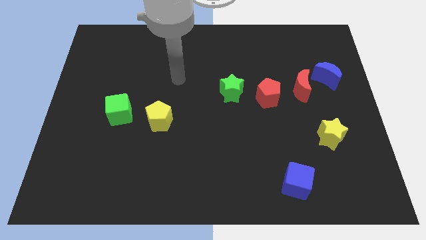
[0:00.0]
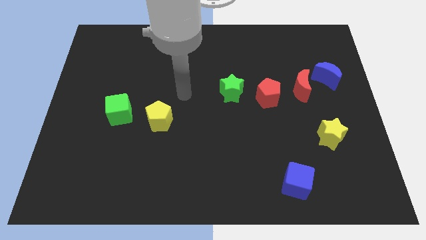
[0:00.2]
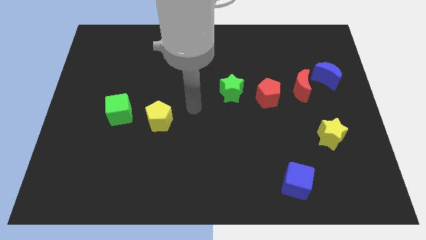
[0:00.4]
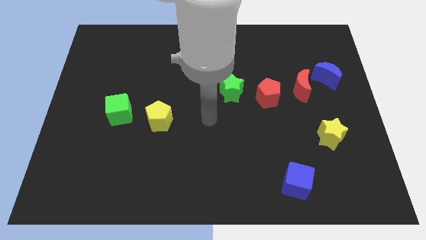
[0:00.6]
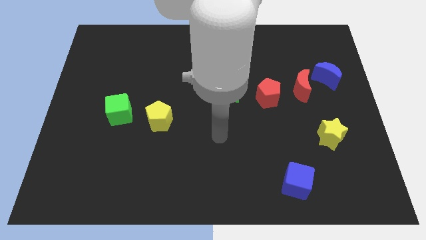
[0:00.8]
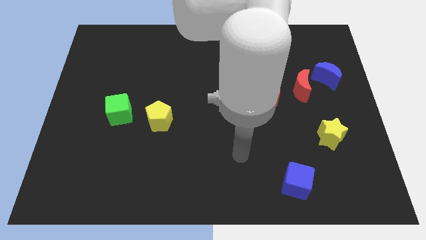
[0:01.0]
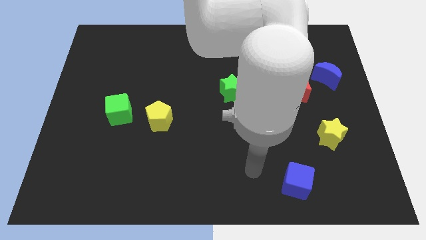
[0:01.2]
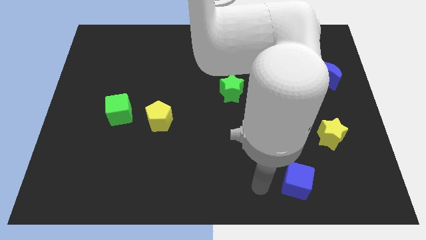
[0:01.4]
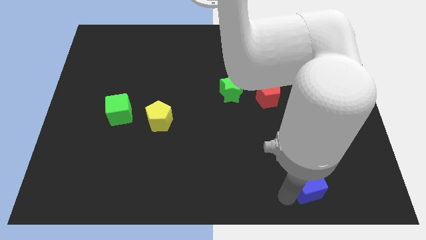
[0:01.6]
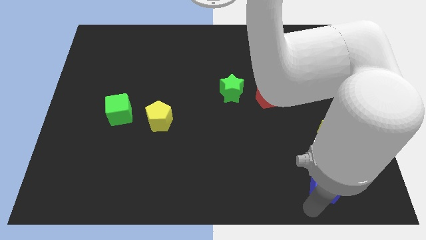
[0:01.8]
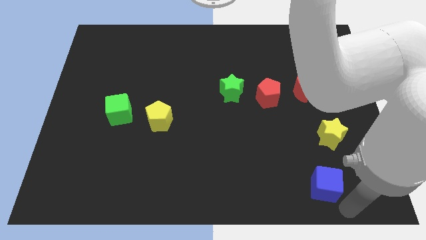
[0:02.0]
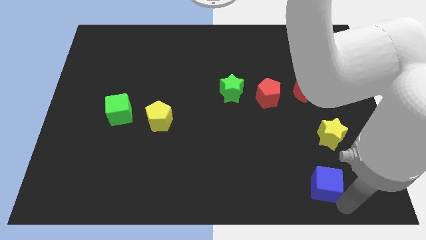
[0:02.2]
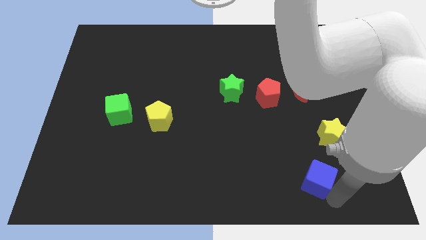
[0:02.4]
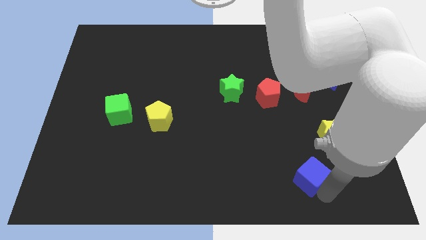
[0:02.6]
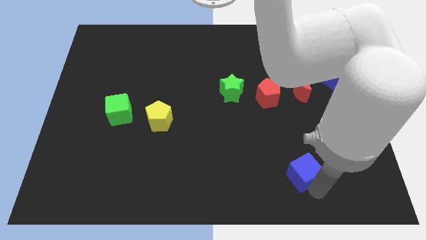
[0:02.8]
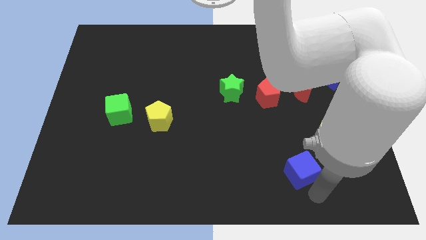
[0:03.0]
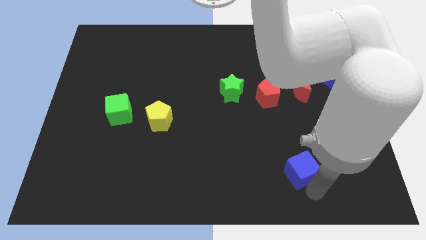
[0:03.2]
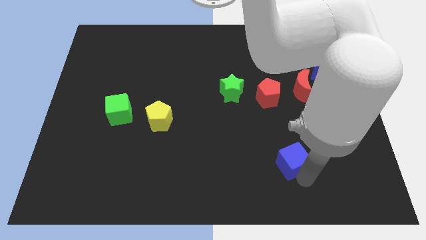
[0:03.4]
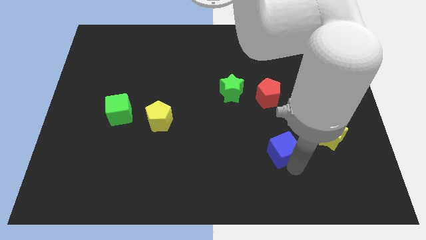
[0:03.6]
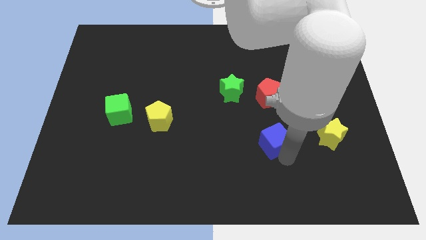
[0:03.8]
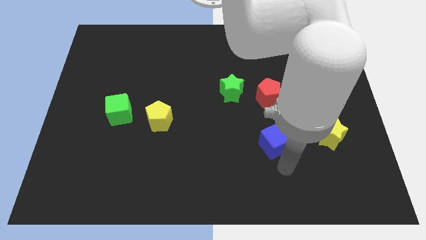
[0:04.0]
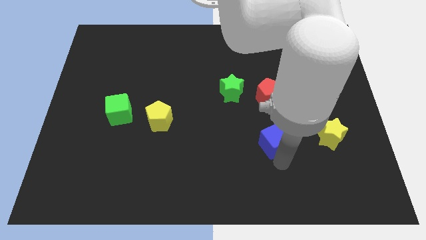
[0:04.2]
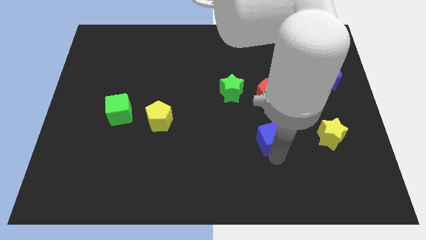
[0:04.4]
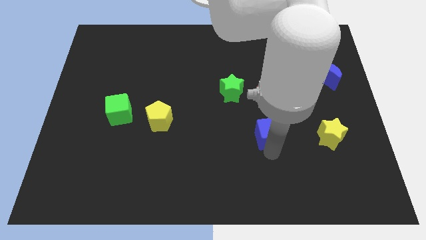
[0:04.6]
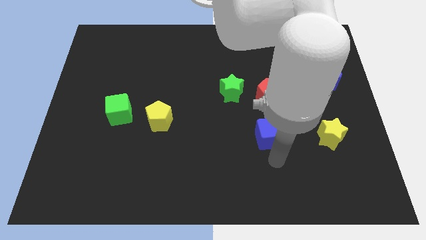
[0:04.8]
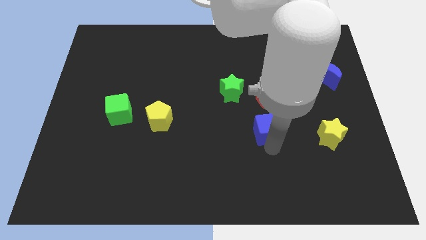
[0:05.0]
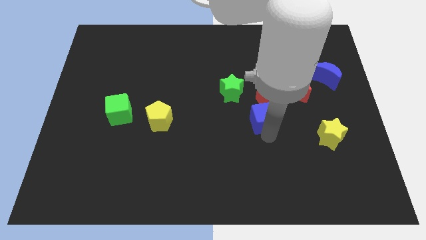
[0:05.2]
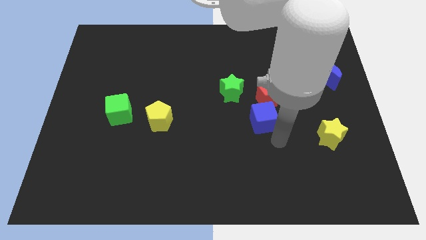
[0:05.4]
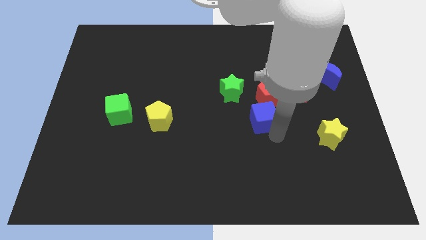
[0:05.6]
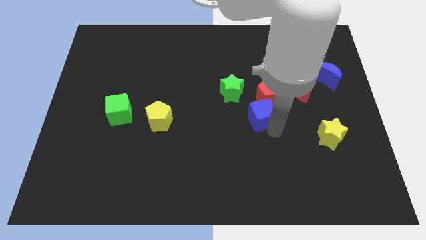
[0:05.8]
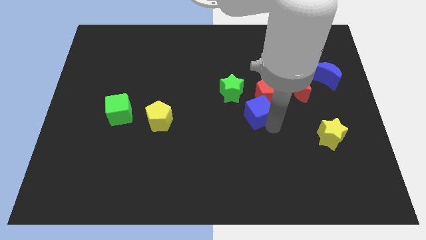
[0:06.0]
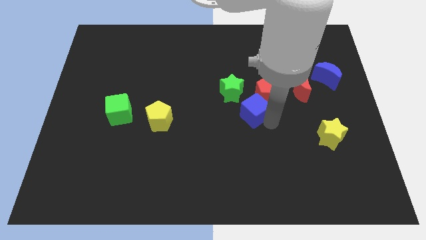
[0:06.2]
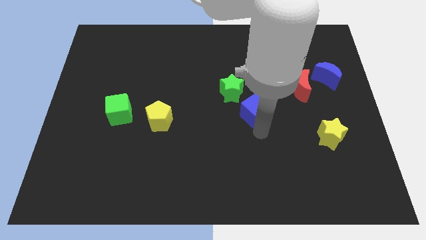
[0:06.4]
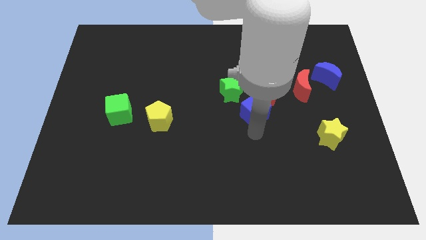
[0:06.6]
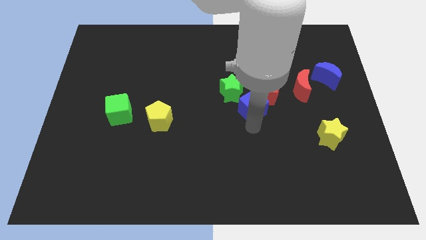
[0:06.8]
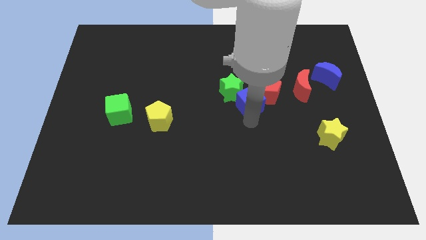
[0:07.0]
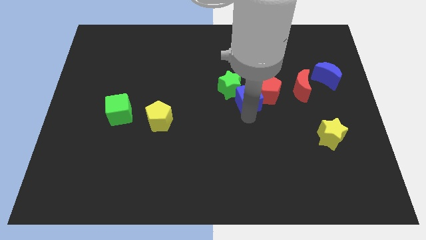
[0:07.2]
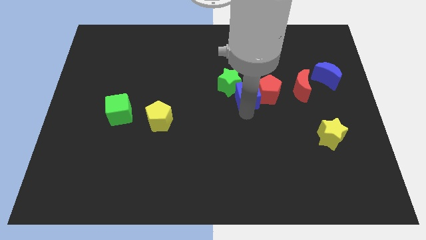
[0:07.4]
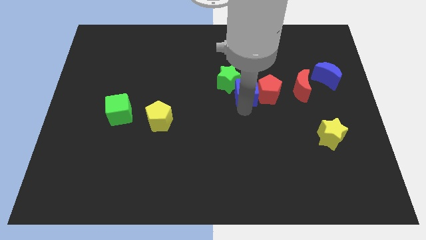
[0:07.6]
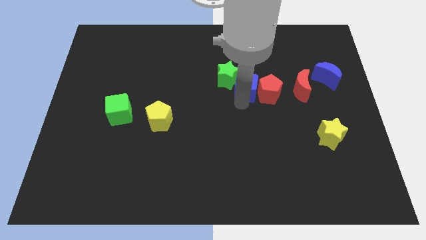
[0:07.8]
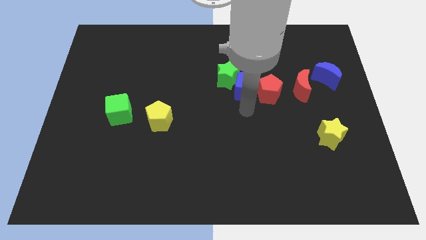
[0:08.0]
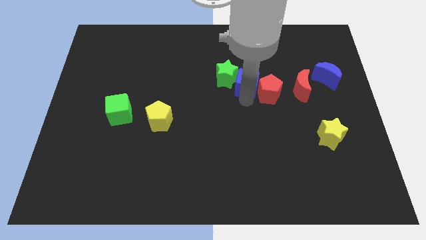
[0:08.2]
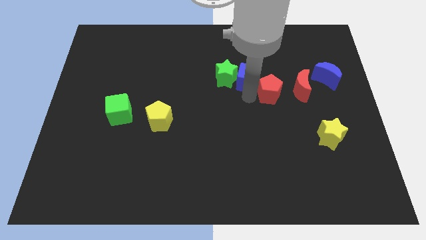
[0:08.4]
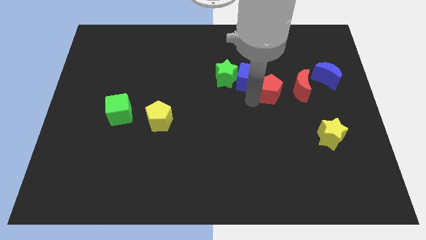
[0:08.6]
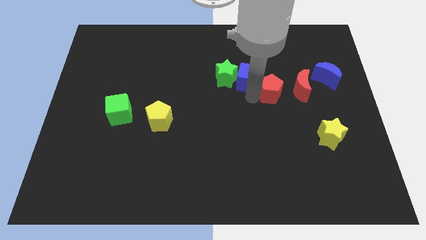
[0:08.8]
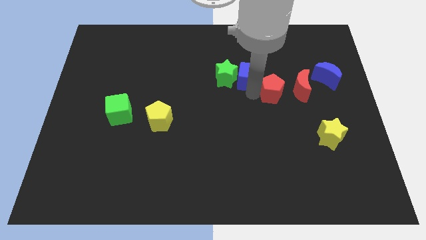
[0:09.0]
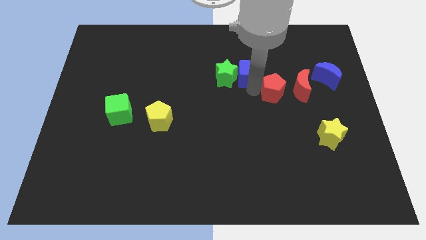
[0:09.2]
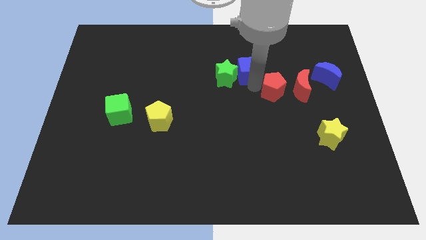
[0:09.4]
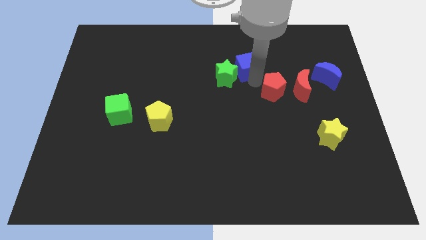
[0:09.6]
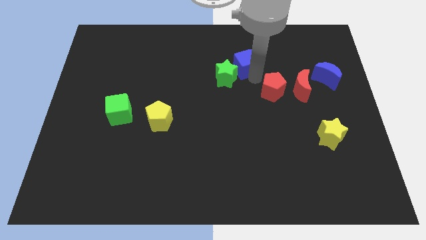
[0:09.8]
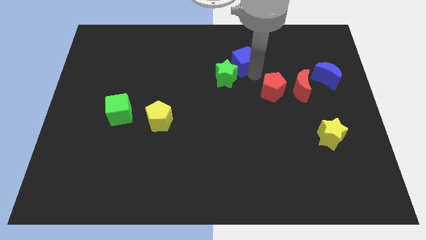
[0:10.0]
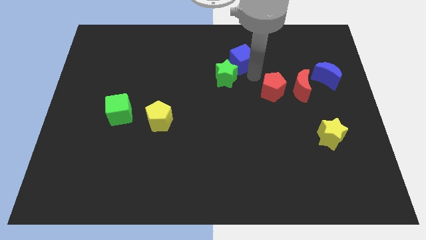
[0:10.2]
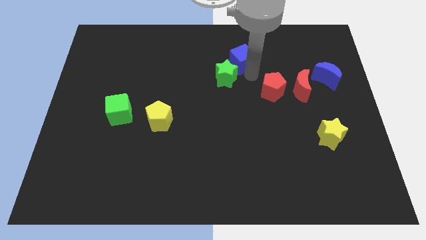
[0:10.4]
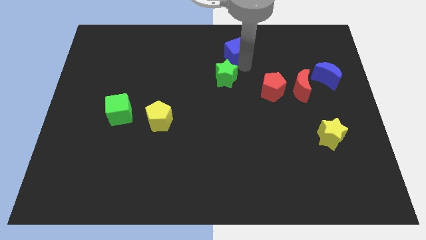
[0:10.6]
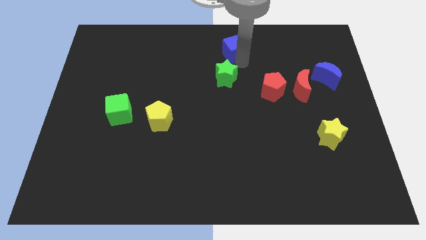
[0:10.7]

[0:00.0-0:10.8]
push the blue cube to the towards your base

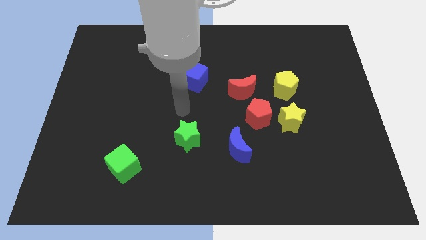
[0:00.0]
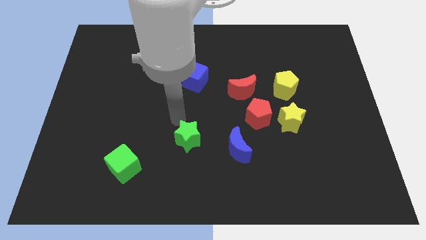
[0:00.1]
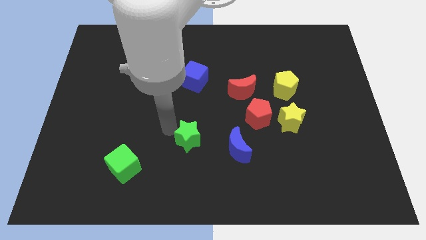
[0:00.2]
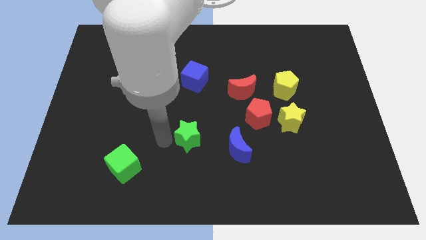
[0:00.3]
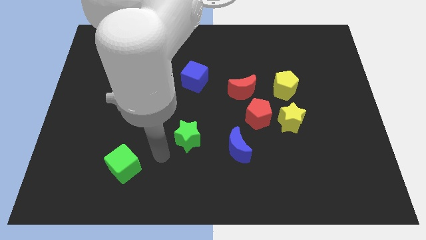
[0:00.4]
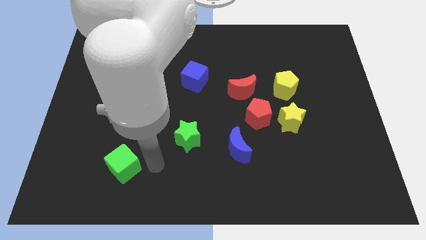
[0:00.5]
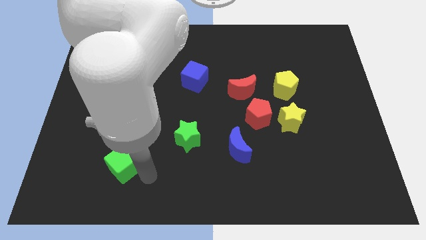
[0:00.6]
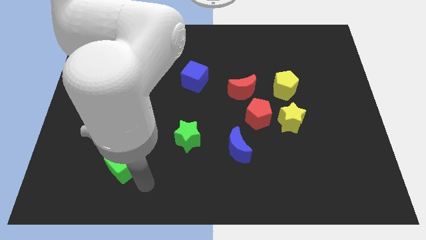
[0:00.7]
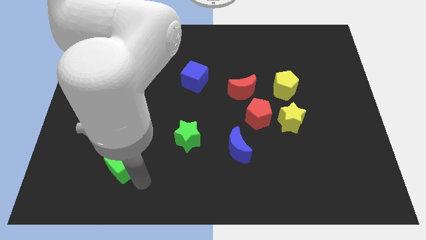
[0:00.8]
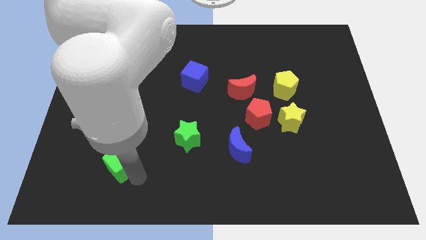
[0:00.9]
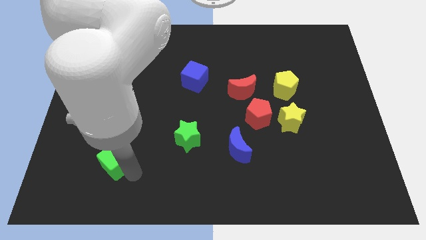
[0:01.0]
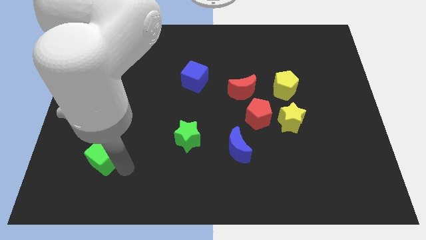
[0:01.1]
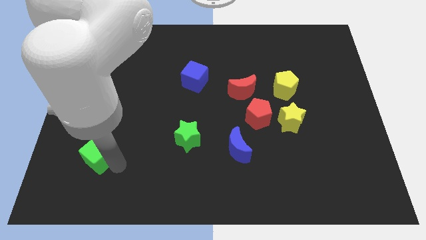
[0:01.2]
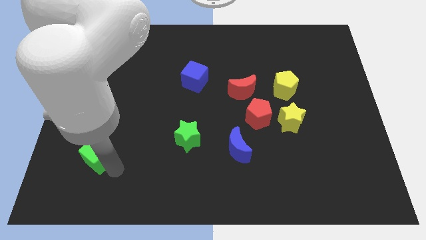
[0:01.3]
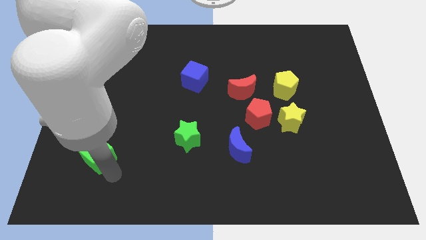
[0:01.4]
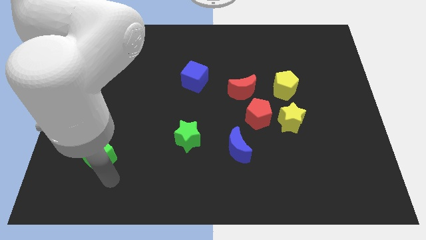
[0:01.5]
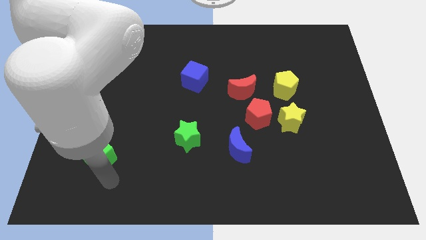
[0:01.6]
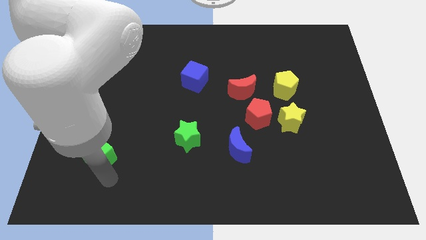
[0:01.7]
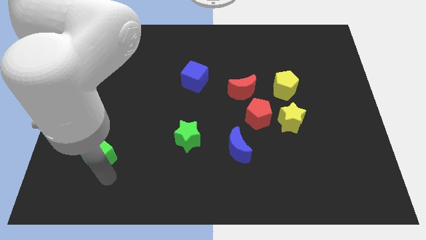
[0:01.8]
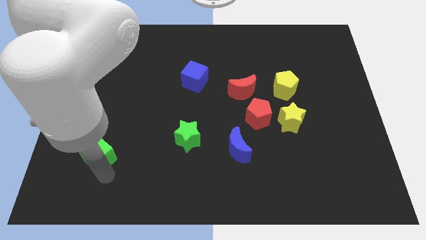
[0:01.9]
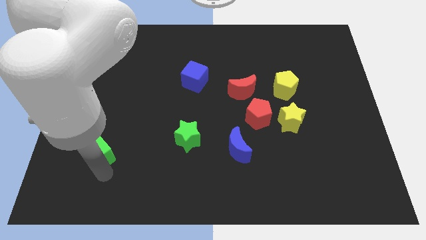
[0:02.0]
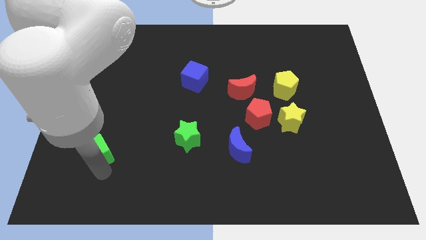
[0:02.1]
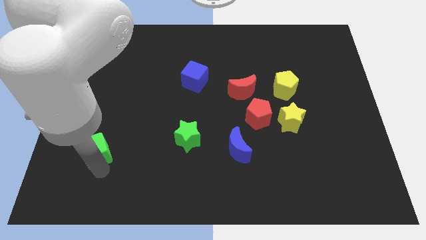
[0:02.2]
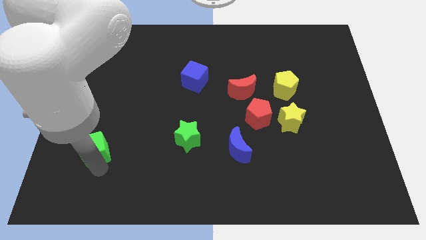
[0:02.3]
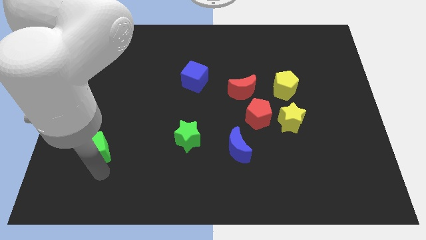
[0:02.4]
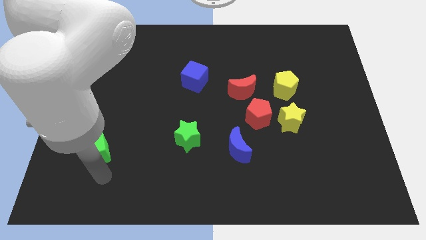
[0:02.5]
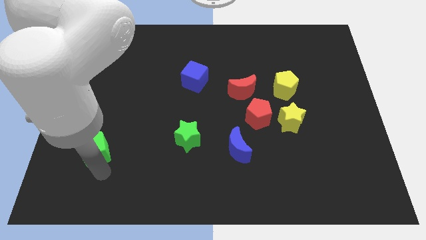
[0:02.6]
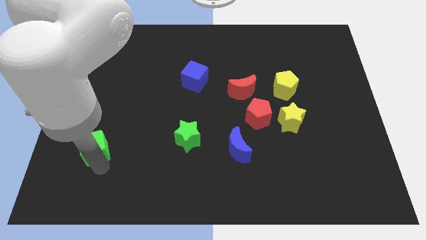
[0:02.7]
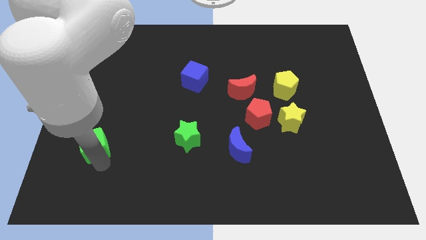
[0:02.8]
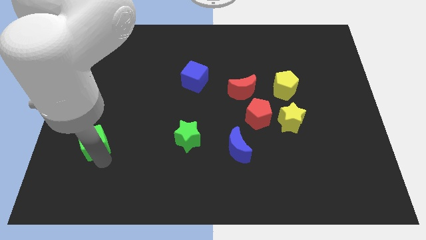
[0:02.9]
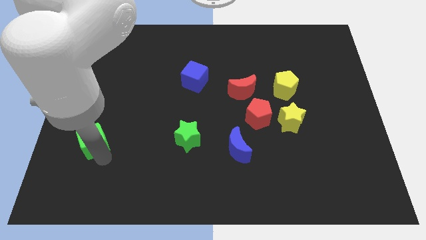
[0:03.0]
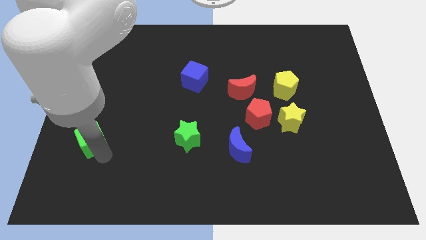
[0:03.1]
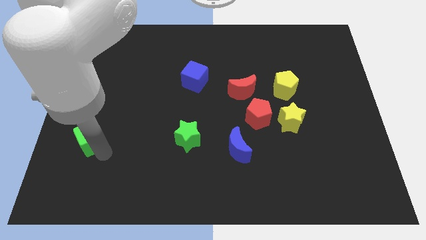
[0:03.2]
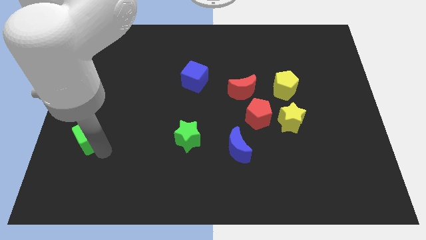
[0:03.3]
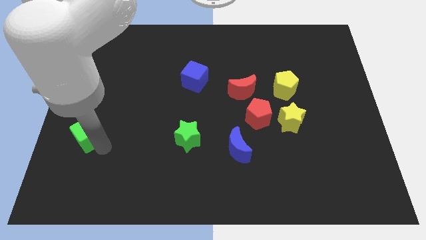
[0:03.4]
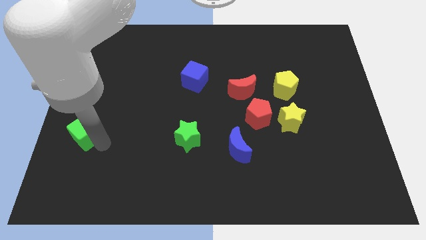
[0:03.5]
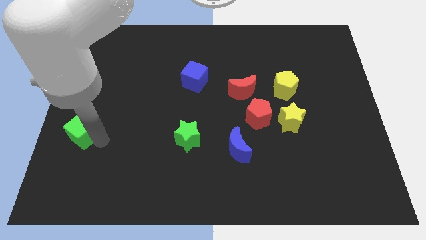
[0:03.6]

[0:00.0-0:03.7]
push the green cube to the left side of the board
